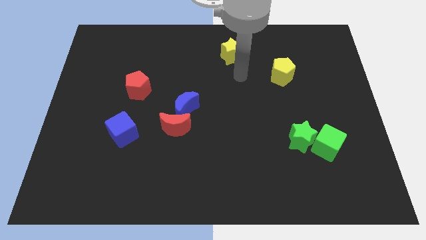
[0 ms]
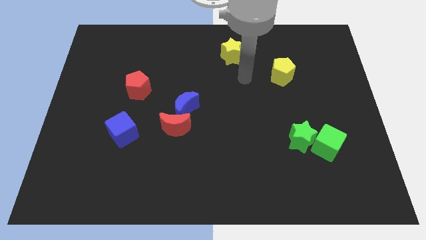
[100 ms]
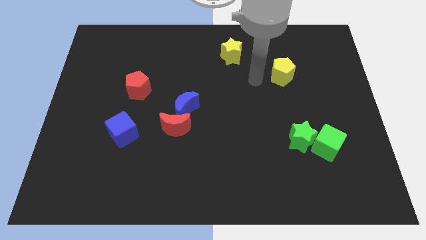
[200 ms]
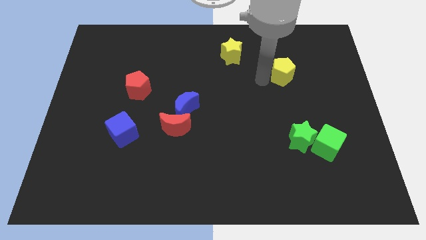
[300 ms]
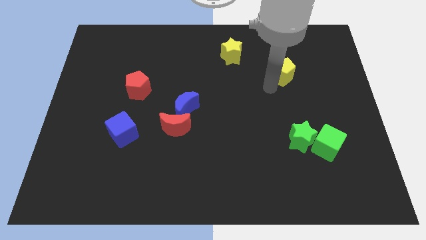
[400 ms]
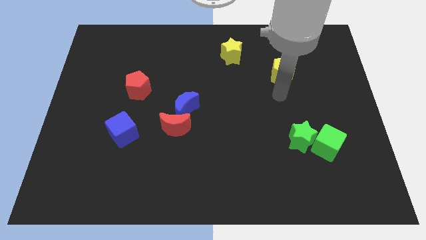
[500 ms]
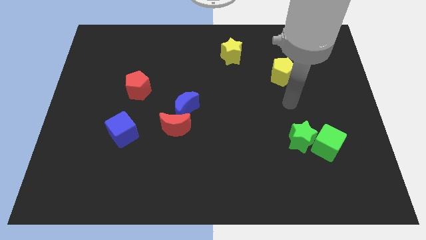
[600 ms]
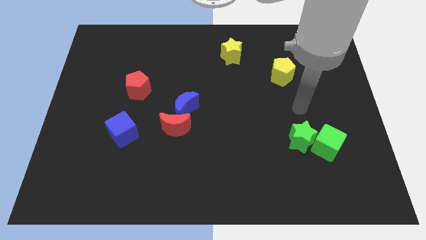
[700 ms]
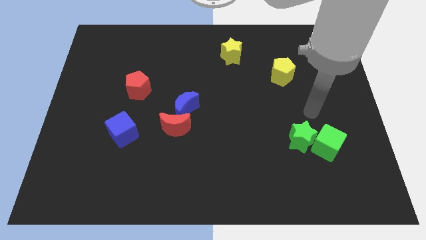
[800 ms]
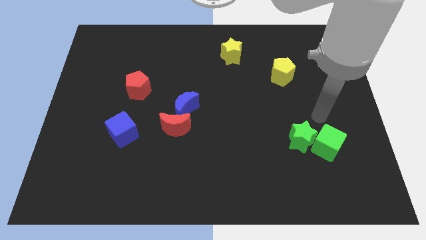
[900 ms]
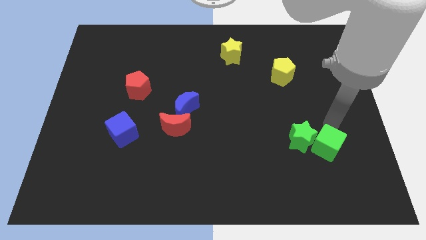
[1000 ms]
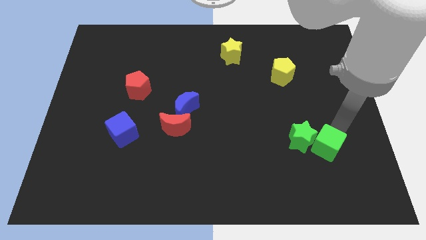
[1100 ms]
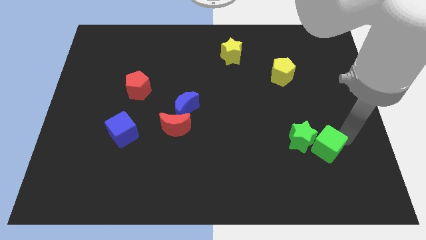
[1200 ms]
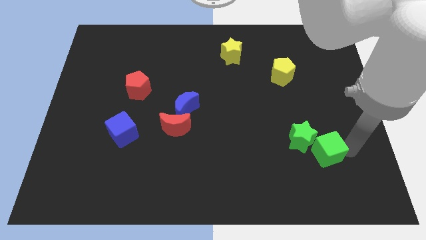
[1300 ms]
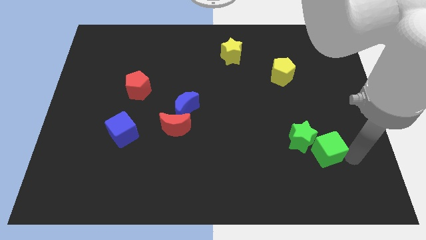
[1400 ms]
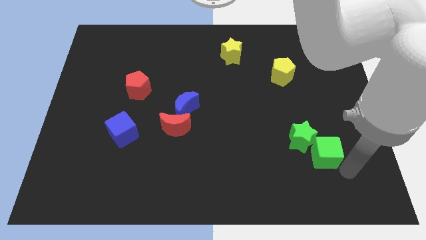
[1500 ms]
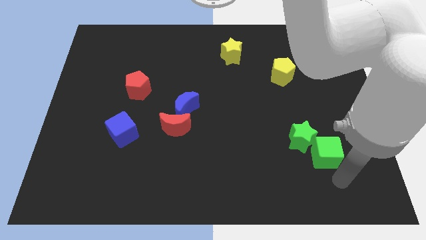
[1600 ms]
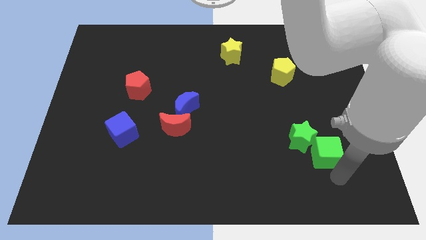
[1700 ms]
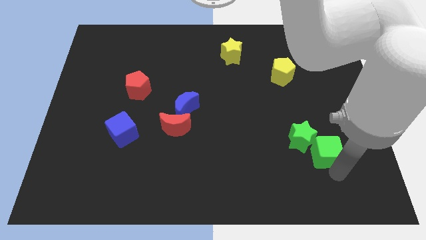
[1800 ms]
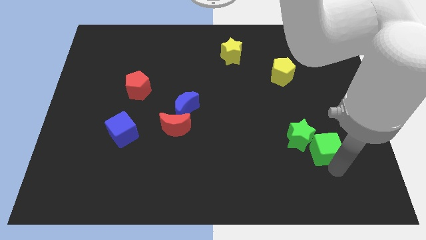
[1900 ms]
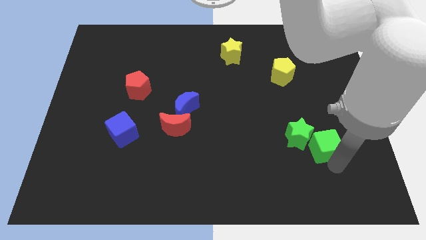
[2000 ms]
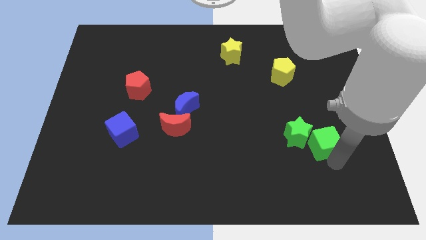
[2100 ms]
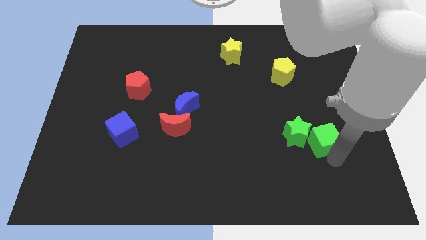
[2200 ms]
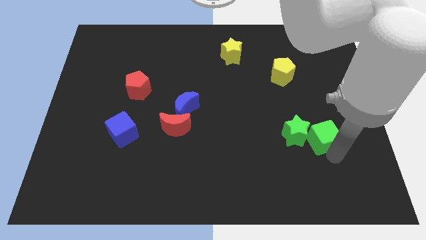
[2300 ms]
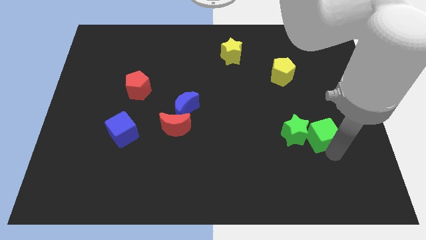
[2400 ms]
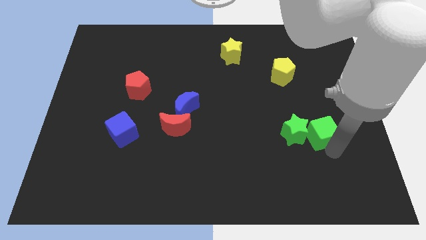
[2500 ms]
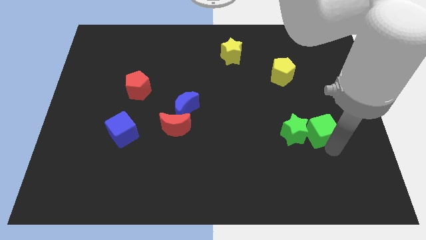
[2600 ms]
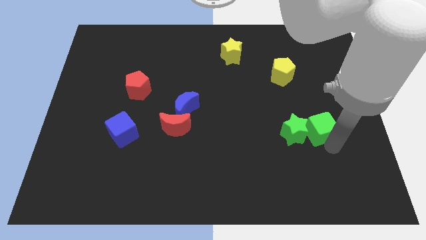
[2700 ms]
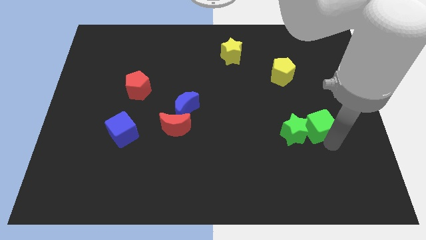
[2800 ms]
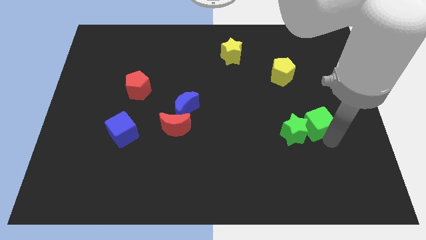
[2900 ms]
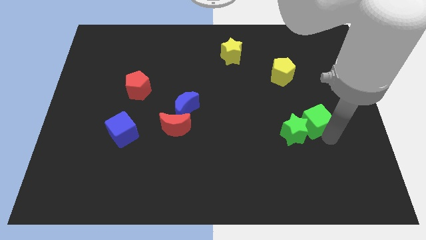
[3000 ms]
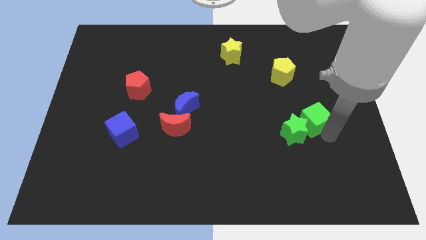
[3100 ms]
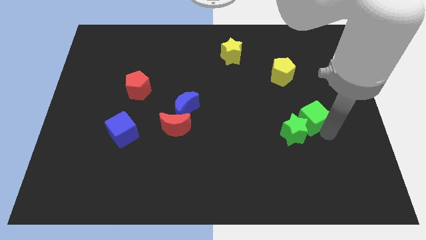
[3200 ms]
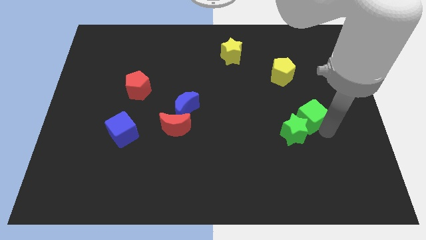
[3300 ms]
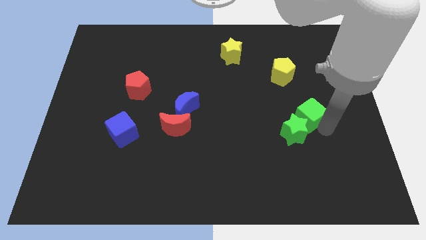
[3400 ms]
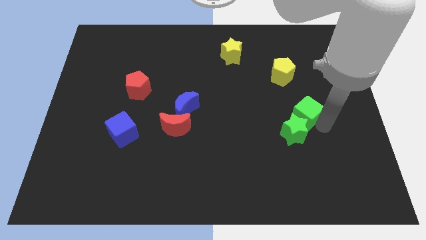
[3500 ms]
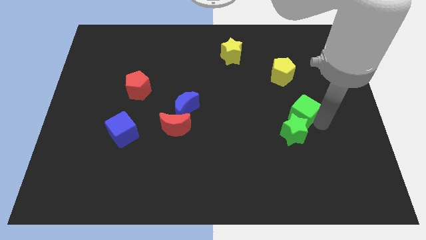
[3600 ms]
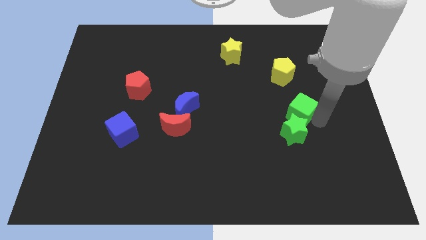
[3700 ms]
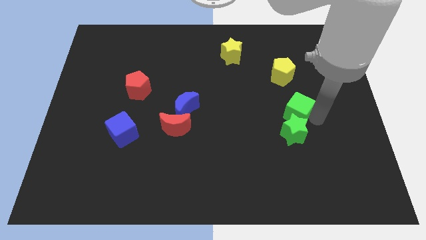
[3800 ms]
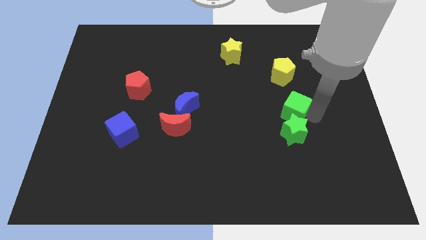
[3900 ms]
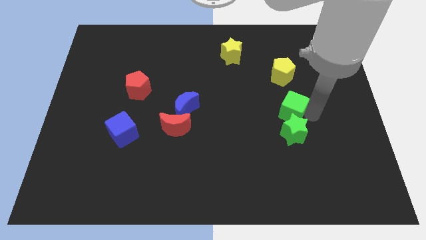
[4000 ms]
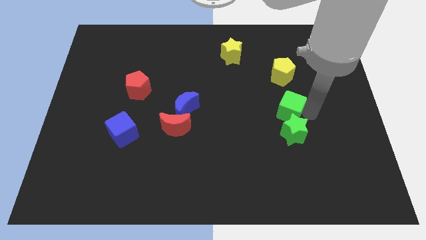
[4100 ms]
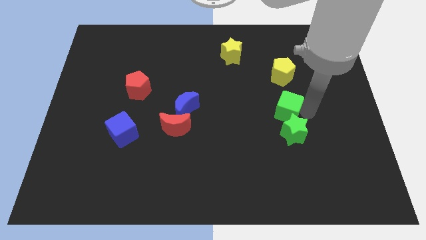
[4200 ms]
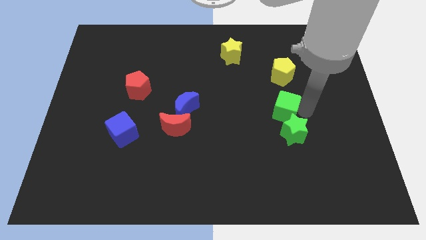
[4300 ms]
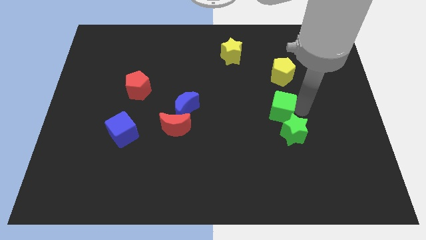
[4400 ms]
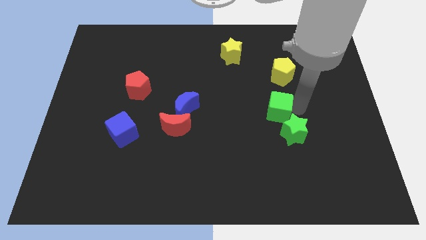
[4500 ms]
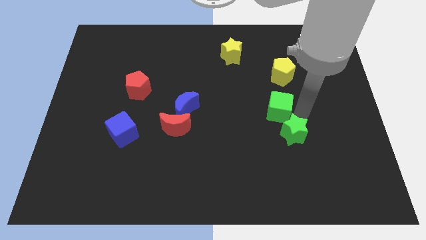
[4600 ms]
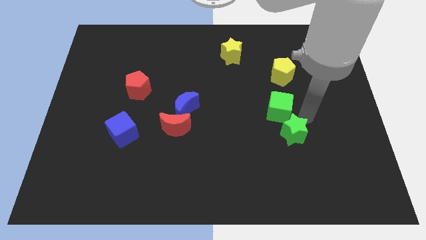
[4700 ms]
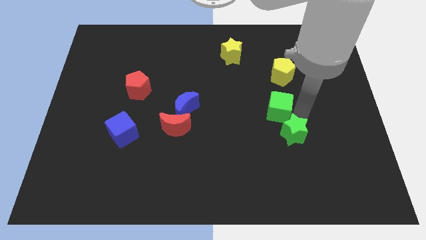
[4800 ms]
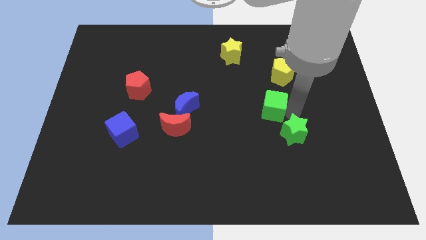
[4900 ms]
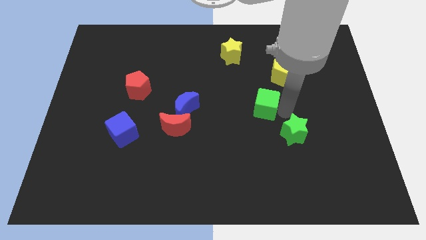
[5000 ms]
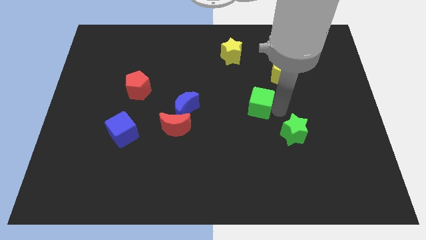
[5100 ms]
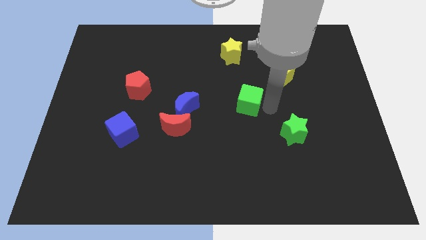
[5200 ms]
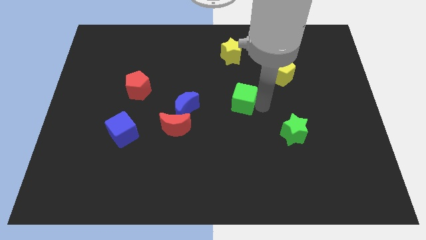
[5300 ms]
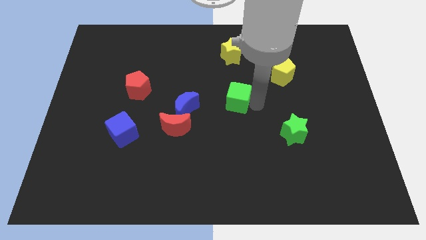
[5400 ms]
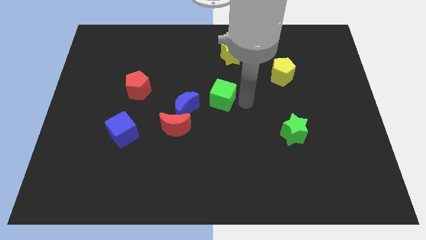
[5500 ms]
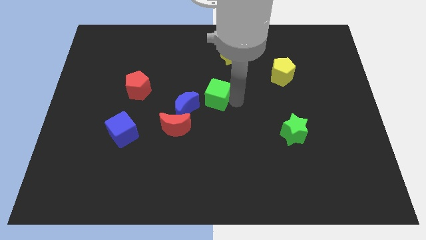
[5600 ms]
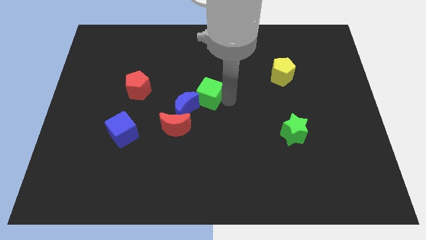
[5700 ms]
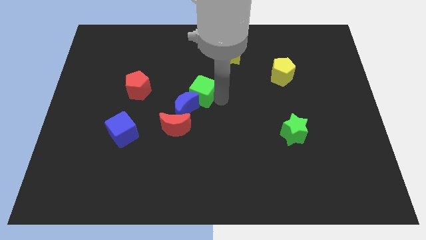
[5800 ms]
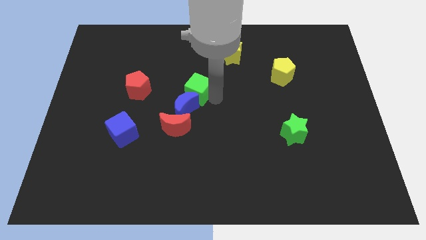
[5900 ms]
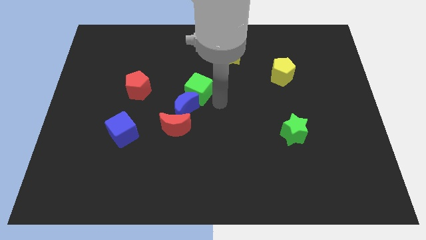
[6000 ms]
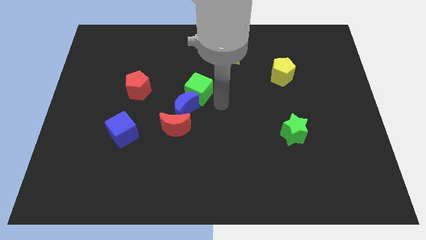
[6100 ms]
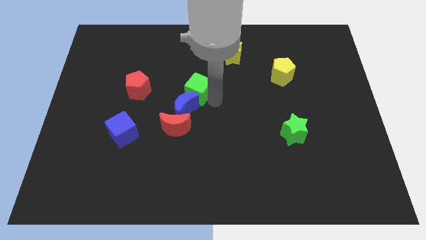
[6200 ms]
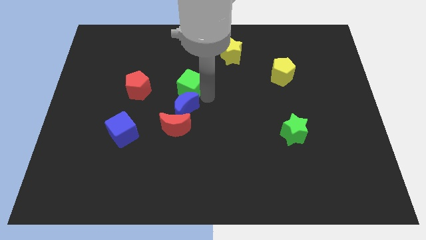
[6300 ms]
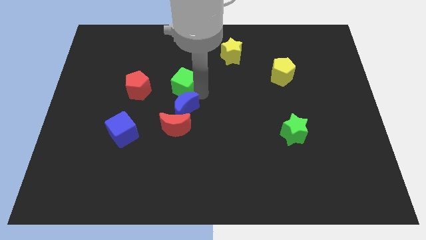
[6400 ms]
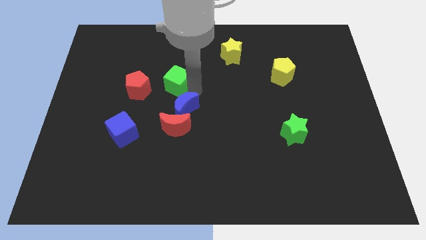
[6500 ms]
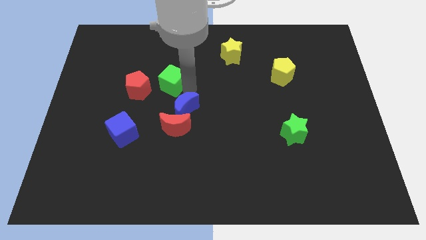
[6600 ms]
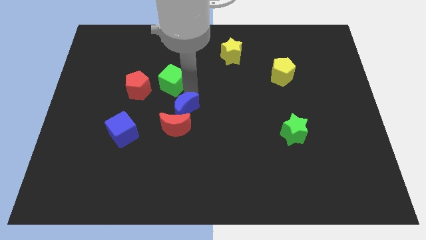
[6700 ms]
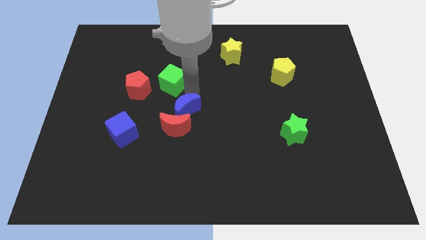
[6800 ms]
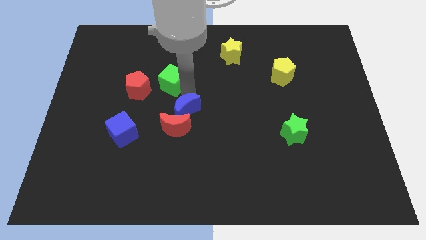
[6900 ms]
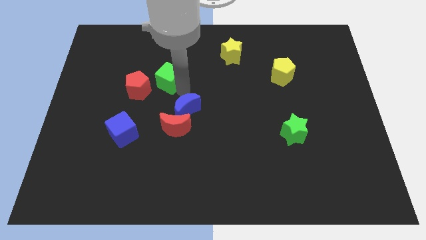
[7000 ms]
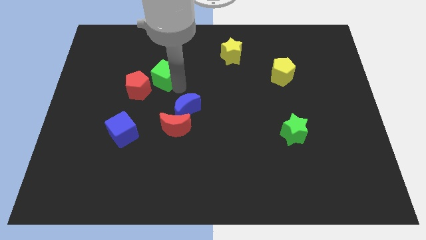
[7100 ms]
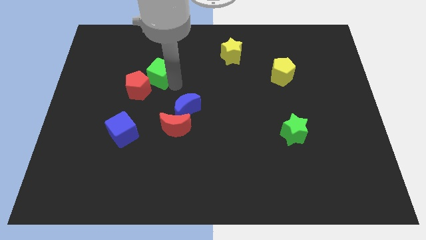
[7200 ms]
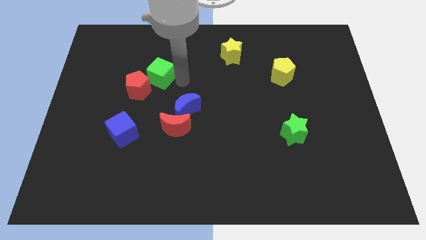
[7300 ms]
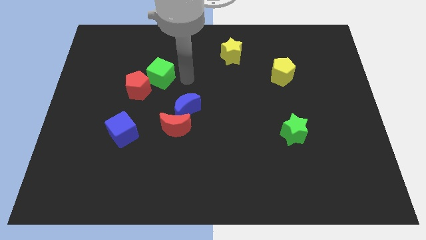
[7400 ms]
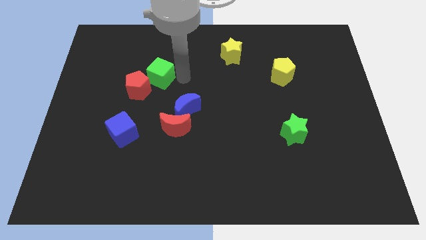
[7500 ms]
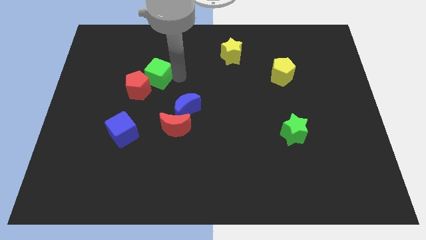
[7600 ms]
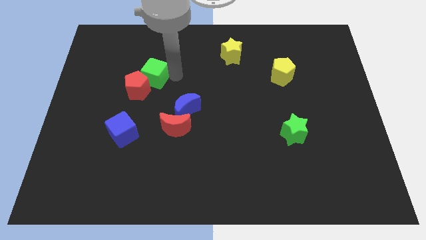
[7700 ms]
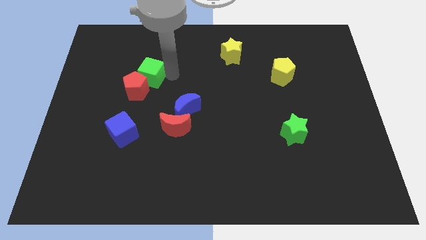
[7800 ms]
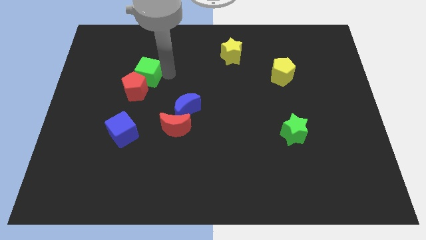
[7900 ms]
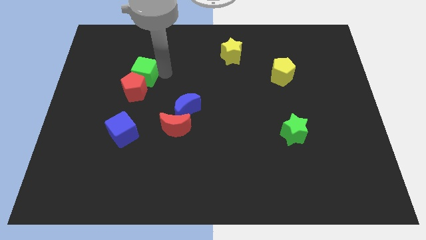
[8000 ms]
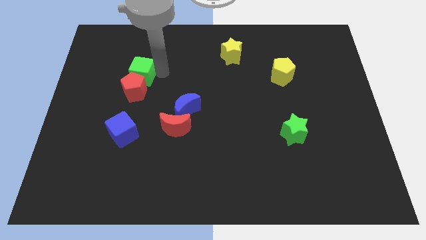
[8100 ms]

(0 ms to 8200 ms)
move the green cube to the top left side of the red pentagon

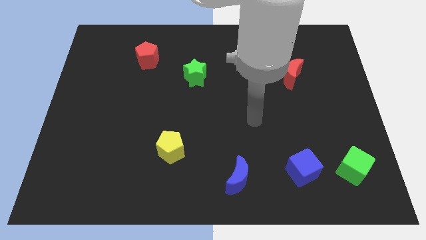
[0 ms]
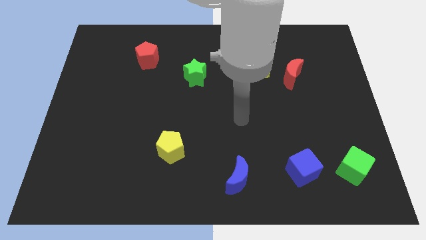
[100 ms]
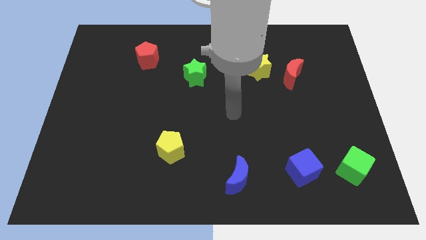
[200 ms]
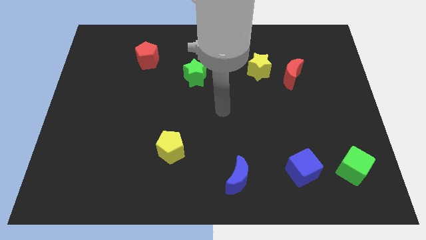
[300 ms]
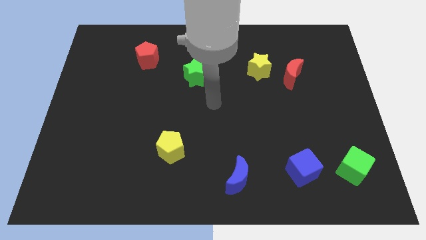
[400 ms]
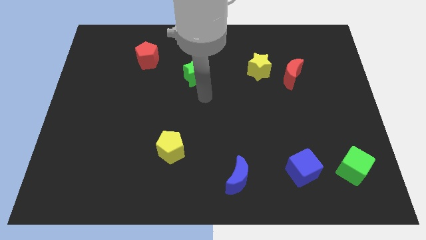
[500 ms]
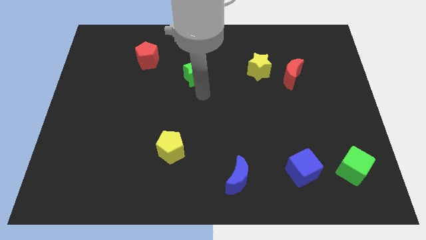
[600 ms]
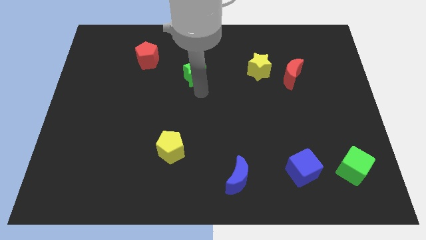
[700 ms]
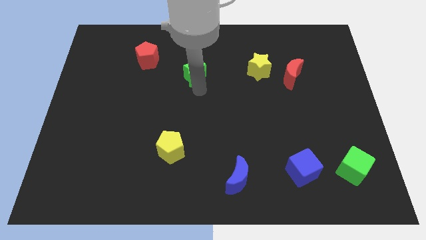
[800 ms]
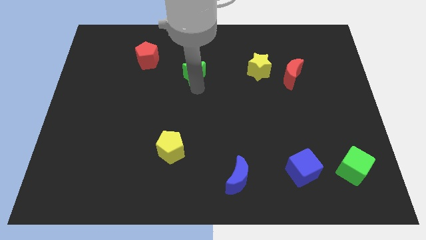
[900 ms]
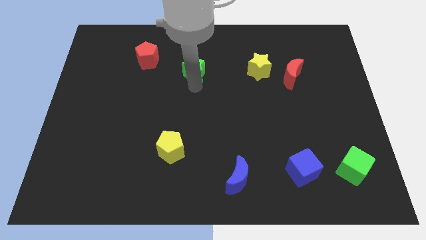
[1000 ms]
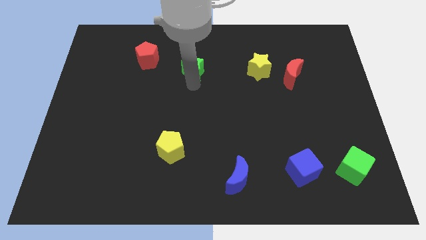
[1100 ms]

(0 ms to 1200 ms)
slide the green star right of the red pentagon
